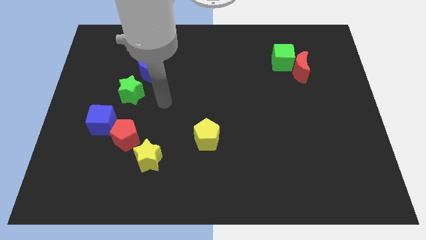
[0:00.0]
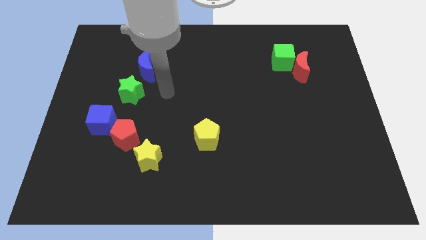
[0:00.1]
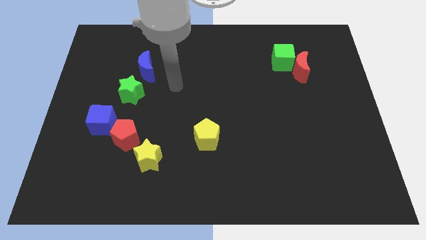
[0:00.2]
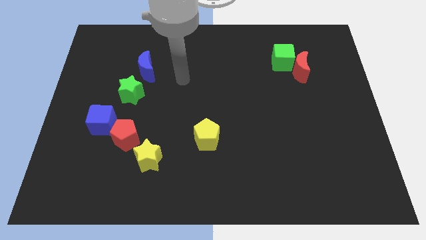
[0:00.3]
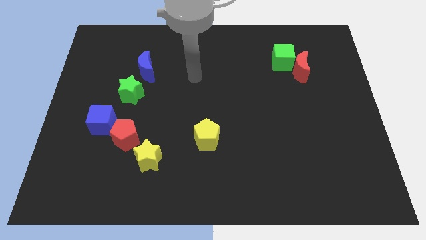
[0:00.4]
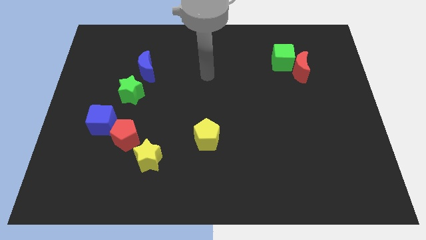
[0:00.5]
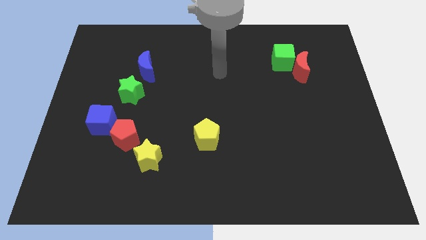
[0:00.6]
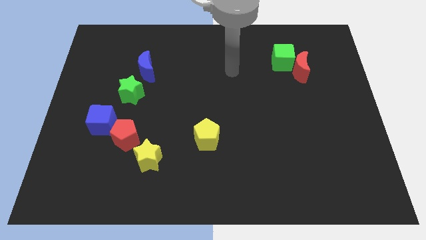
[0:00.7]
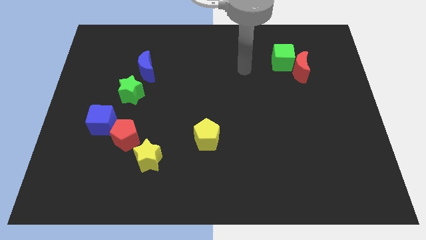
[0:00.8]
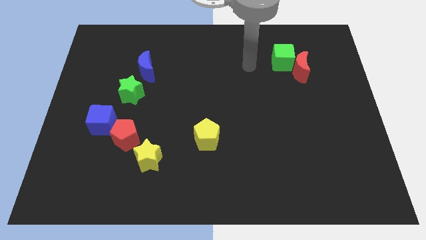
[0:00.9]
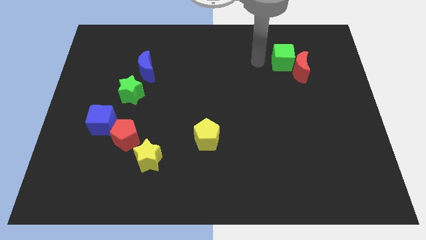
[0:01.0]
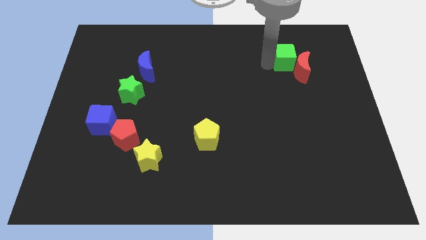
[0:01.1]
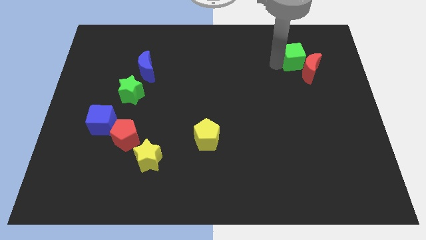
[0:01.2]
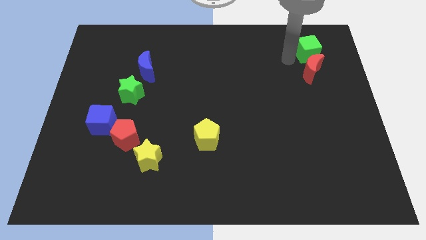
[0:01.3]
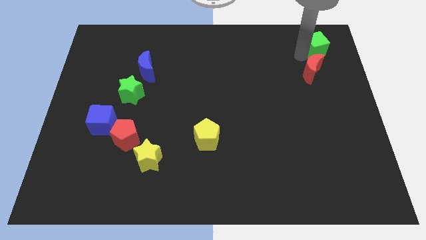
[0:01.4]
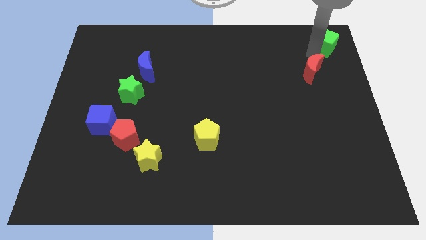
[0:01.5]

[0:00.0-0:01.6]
separate the red moon from the green cube

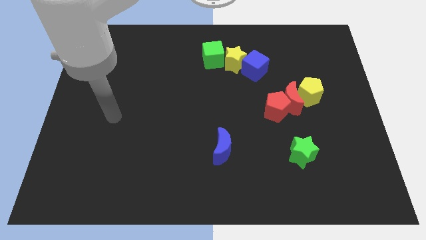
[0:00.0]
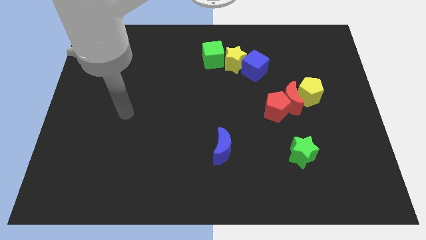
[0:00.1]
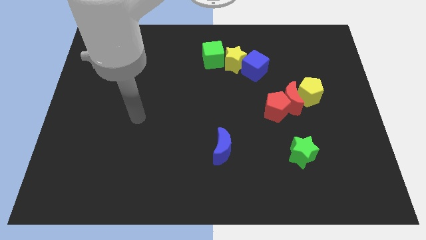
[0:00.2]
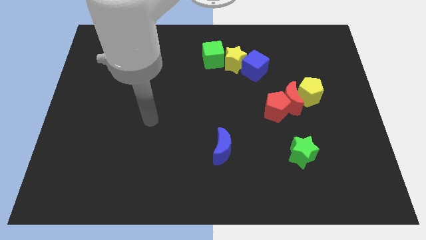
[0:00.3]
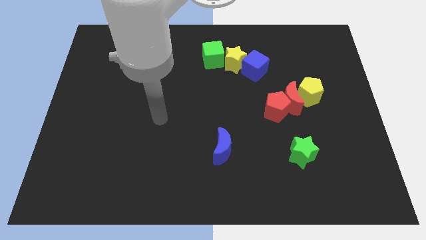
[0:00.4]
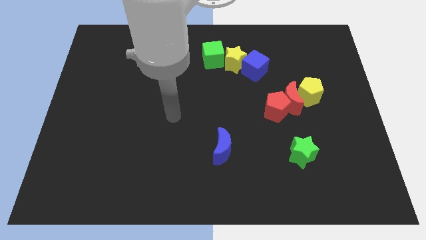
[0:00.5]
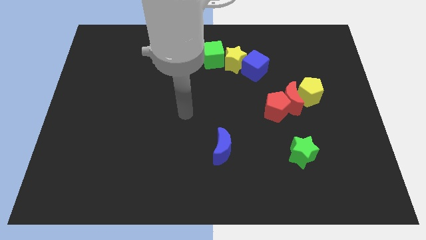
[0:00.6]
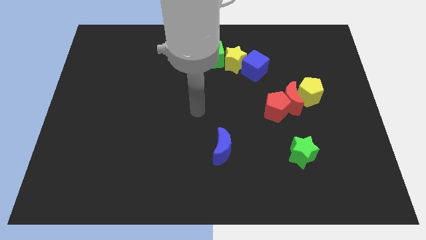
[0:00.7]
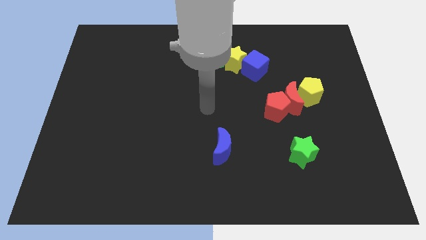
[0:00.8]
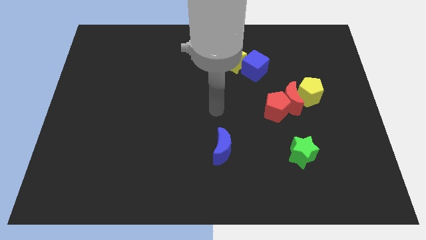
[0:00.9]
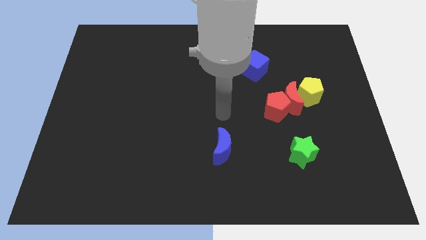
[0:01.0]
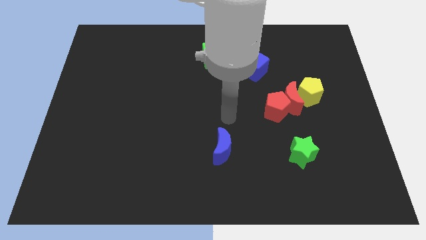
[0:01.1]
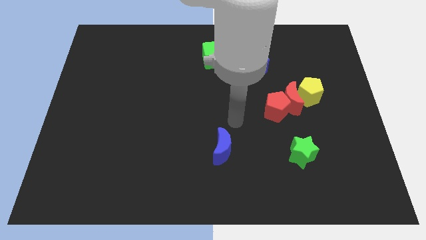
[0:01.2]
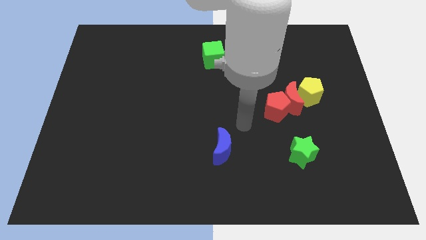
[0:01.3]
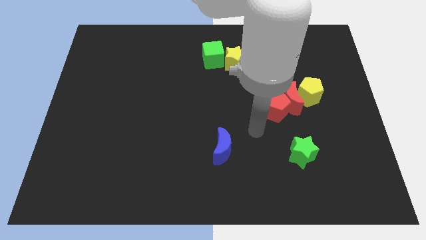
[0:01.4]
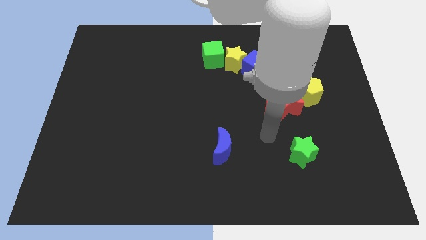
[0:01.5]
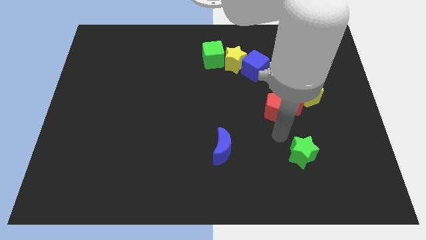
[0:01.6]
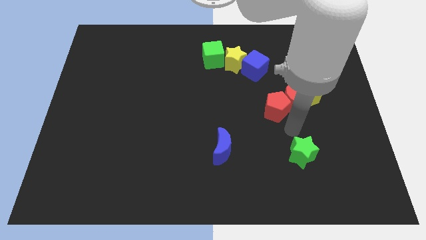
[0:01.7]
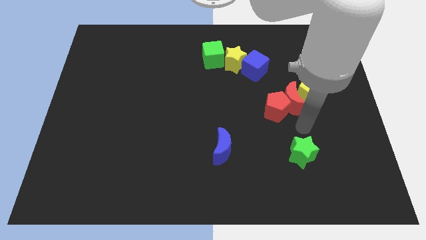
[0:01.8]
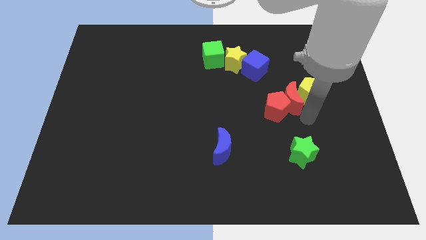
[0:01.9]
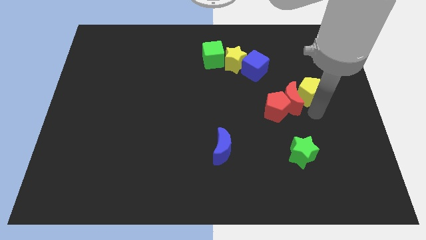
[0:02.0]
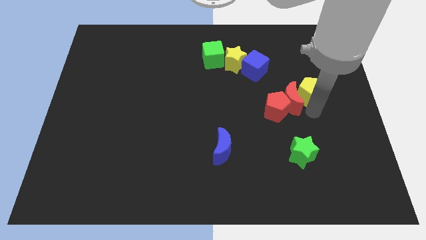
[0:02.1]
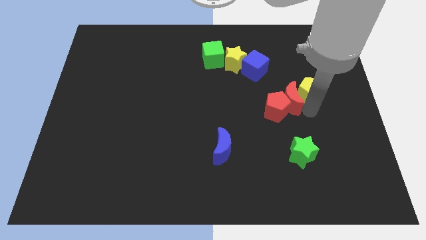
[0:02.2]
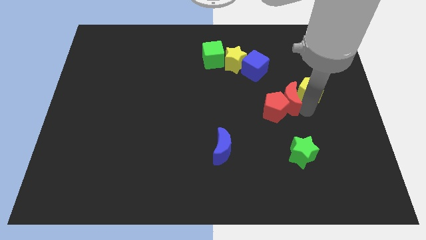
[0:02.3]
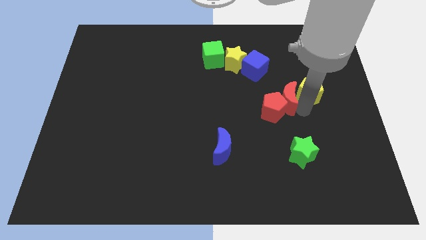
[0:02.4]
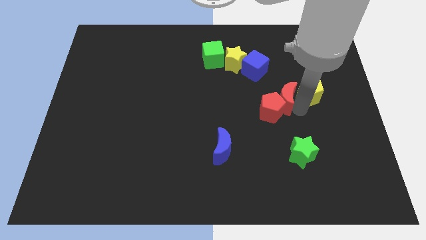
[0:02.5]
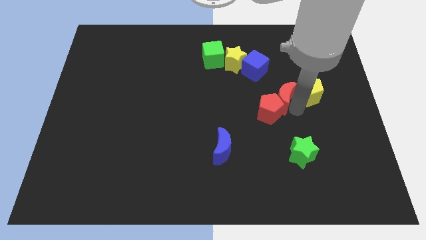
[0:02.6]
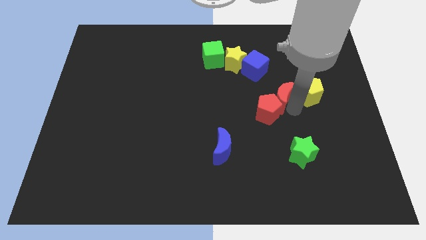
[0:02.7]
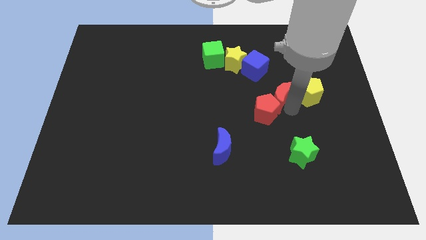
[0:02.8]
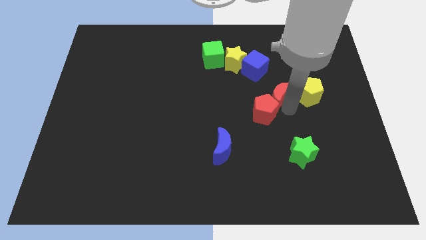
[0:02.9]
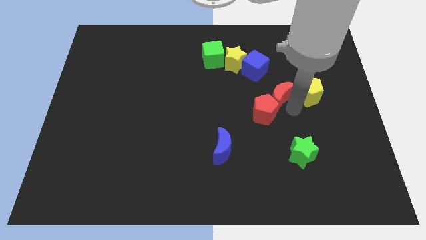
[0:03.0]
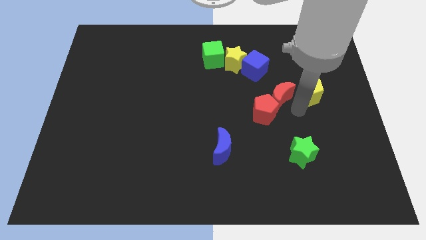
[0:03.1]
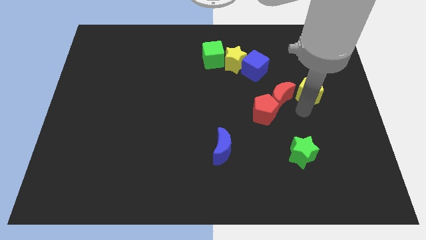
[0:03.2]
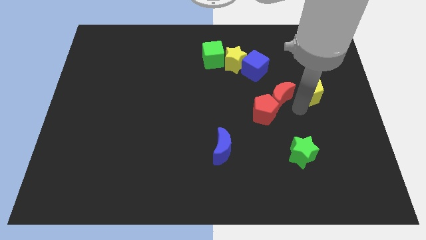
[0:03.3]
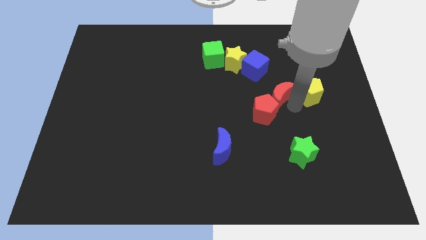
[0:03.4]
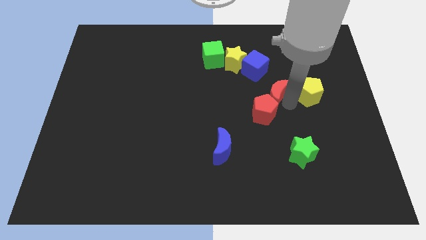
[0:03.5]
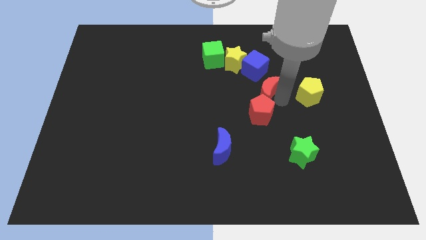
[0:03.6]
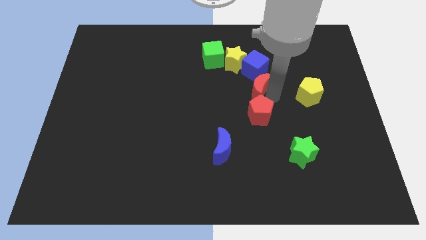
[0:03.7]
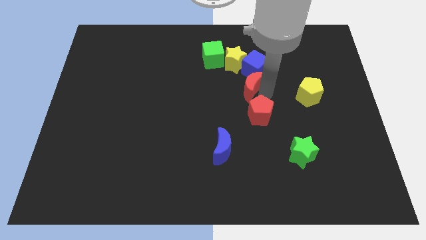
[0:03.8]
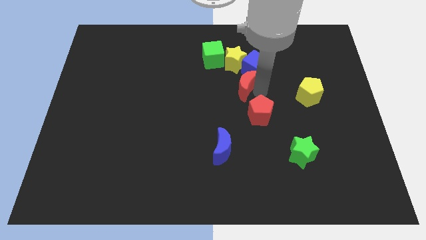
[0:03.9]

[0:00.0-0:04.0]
pull the red moon apart from the red pentagon and yellow pentagon

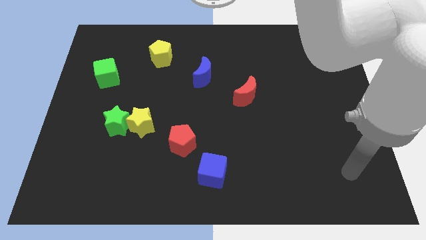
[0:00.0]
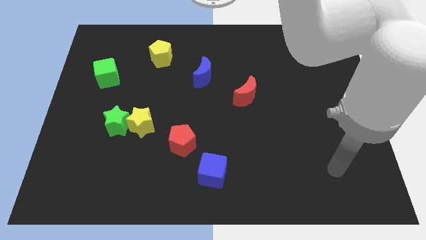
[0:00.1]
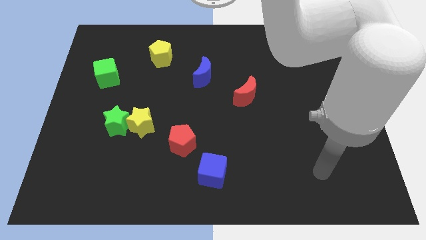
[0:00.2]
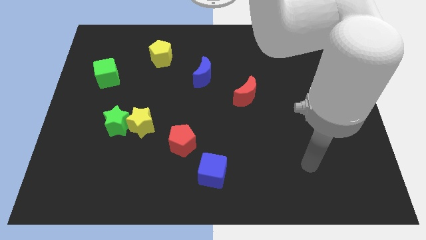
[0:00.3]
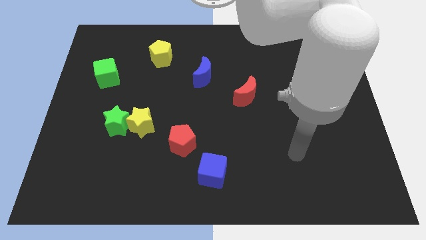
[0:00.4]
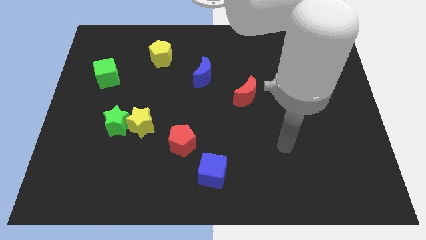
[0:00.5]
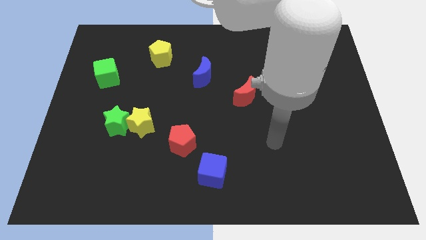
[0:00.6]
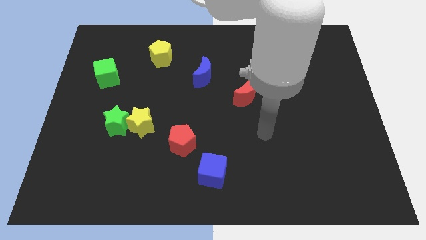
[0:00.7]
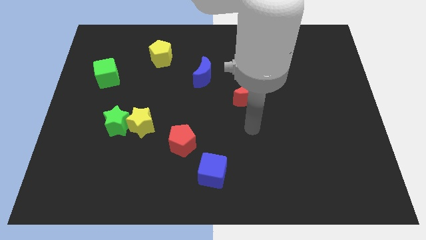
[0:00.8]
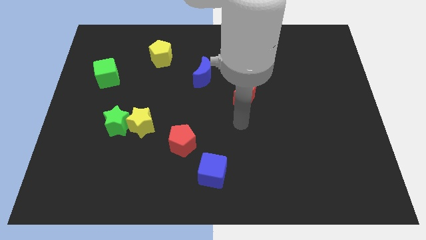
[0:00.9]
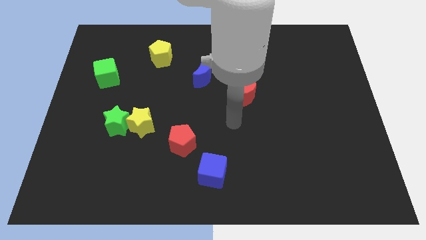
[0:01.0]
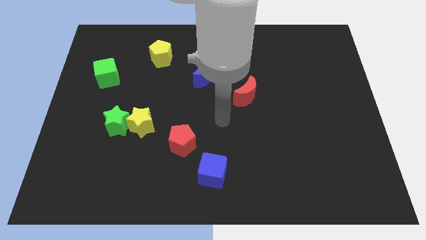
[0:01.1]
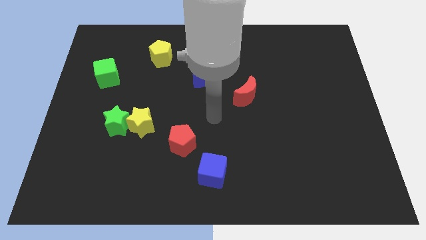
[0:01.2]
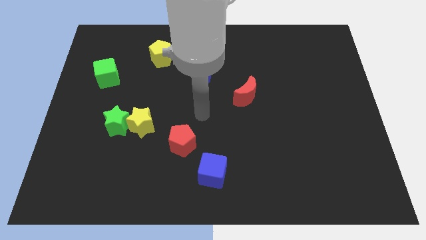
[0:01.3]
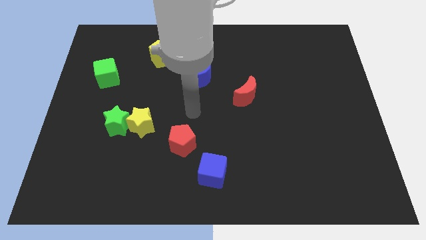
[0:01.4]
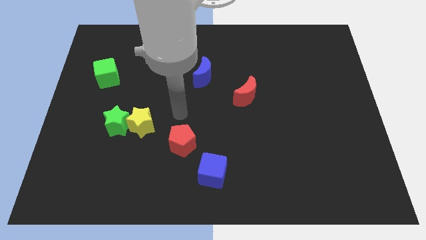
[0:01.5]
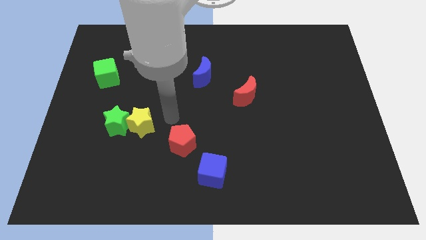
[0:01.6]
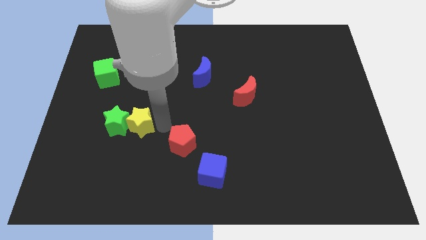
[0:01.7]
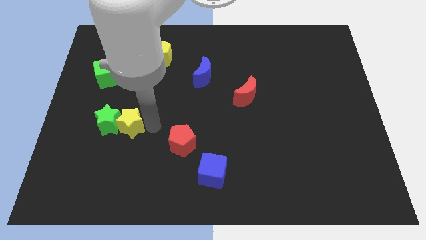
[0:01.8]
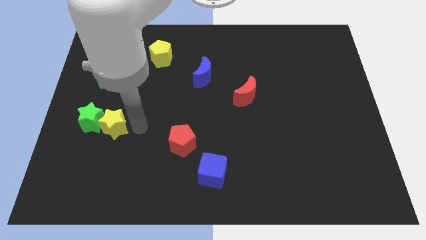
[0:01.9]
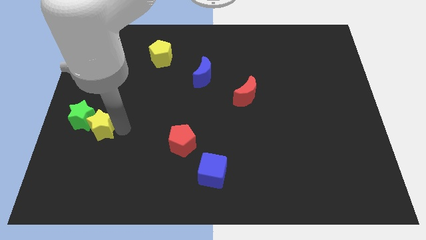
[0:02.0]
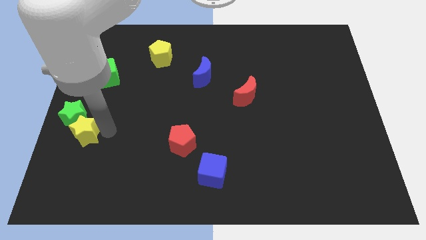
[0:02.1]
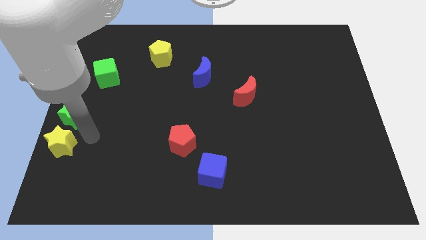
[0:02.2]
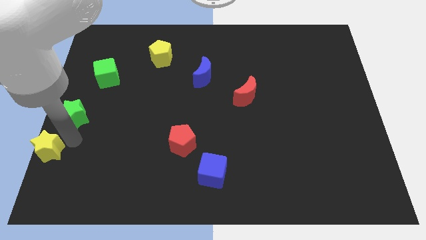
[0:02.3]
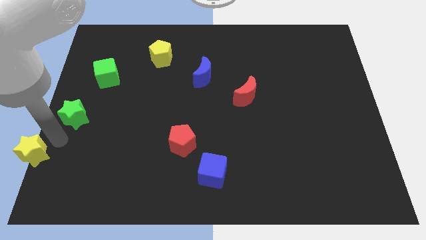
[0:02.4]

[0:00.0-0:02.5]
separate the green star from the yellow star

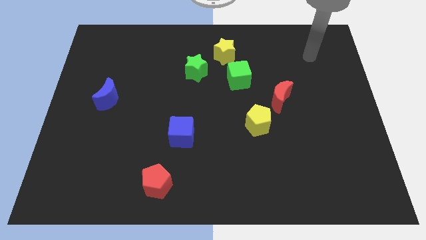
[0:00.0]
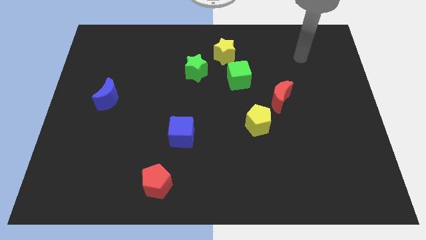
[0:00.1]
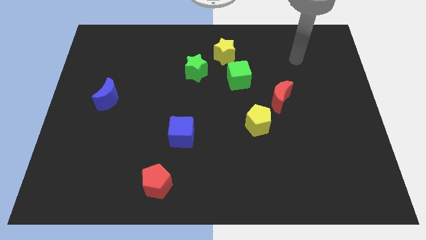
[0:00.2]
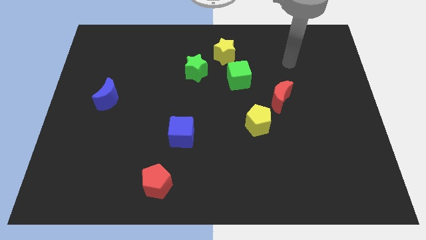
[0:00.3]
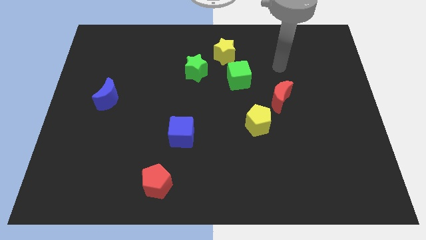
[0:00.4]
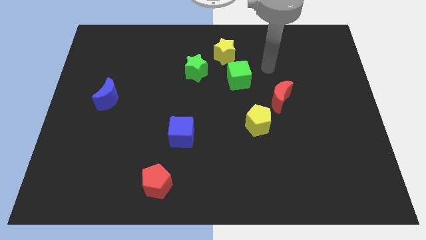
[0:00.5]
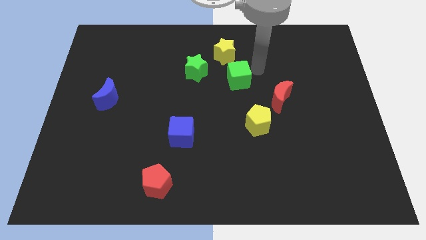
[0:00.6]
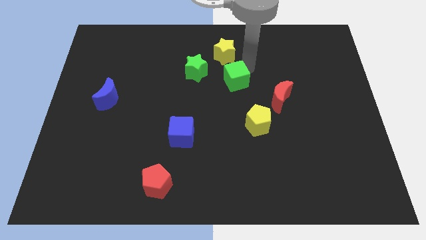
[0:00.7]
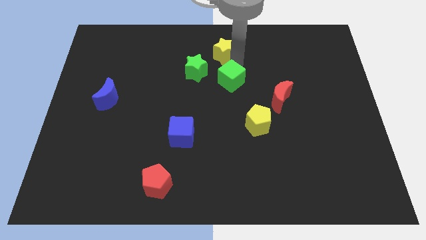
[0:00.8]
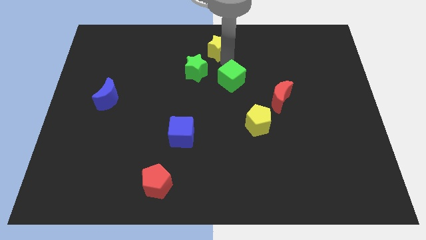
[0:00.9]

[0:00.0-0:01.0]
pull the green cube apart from the yellow star
